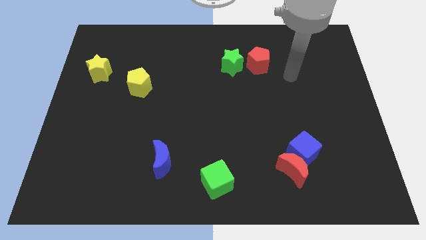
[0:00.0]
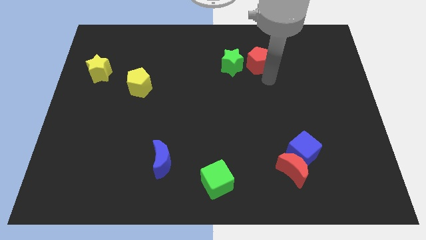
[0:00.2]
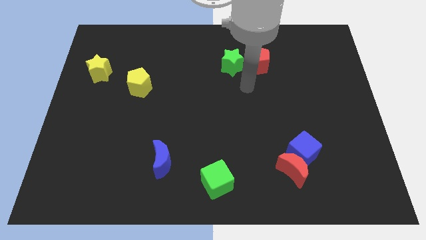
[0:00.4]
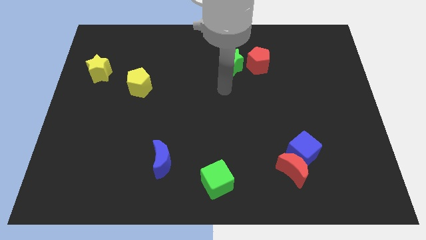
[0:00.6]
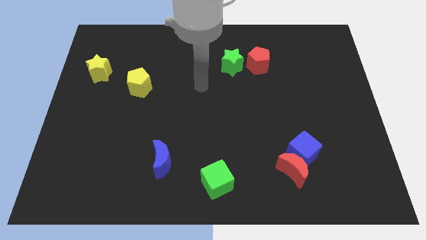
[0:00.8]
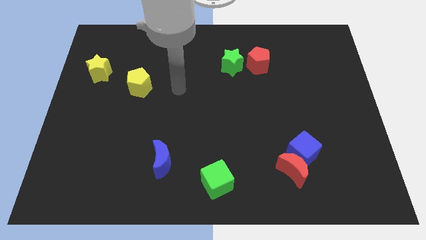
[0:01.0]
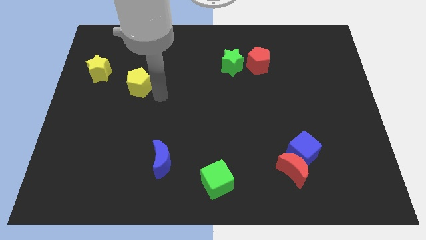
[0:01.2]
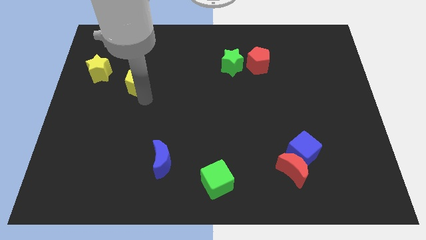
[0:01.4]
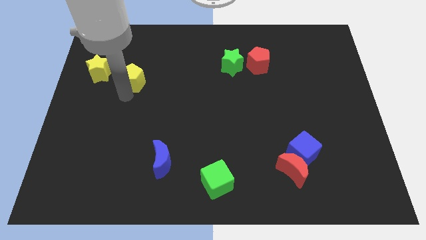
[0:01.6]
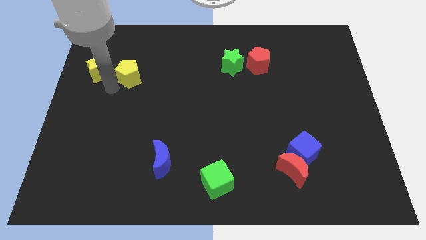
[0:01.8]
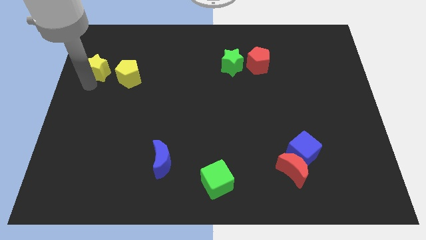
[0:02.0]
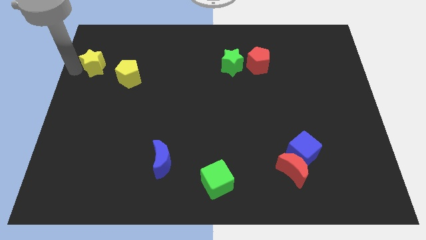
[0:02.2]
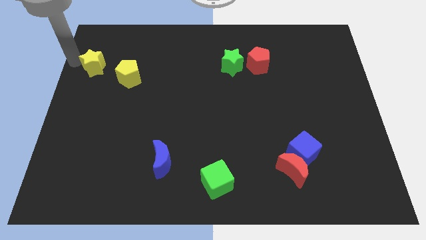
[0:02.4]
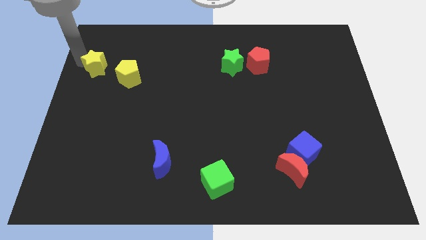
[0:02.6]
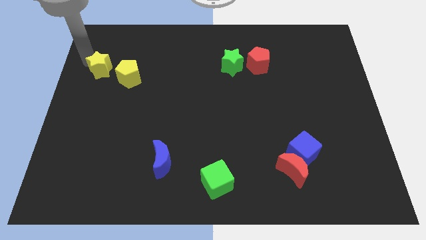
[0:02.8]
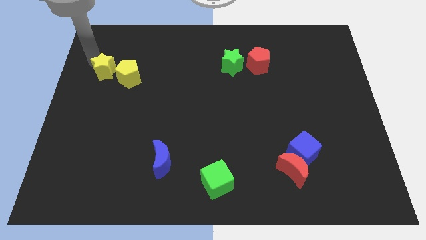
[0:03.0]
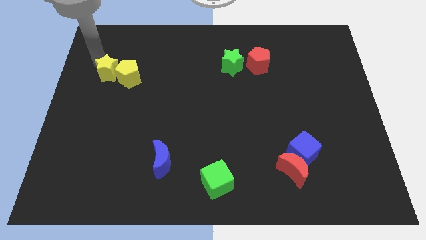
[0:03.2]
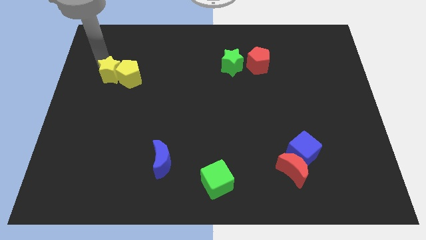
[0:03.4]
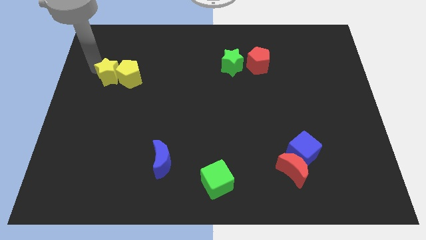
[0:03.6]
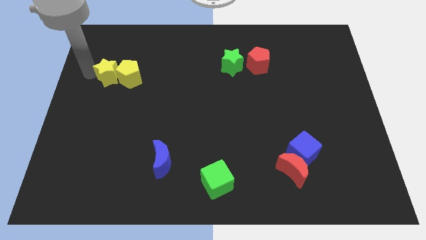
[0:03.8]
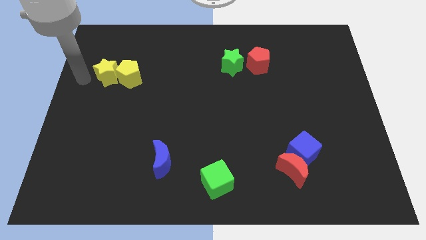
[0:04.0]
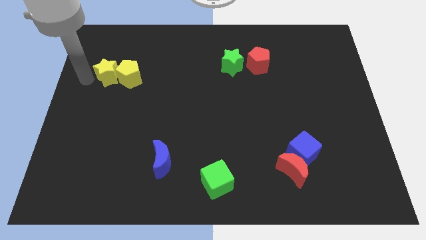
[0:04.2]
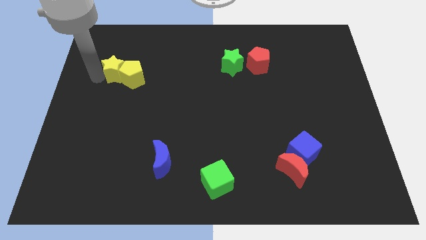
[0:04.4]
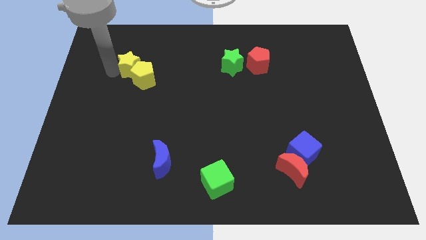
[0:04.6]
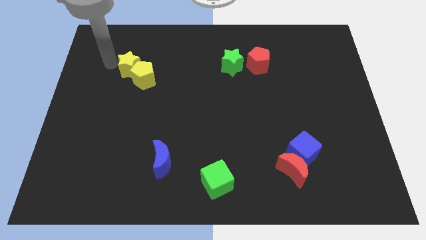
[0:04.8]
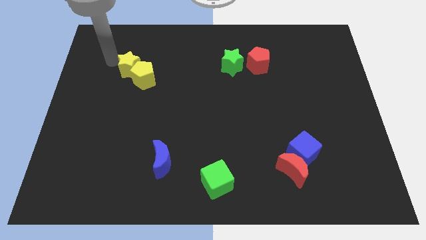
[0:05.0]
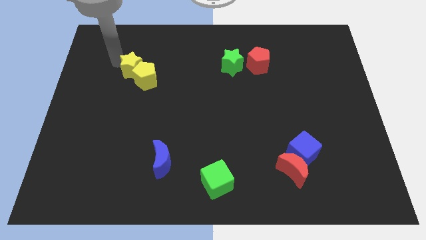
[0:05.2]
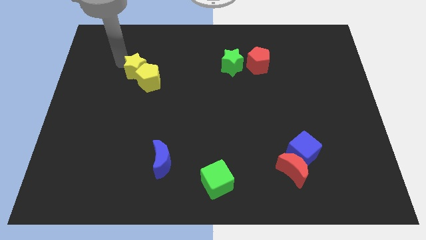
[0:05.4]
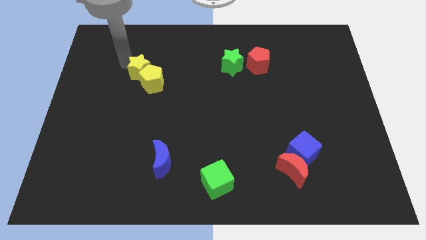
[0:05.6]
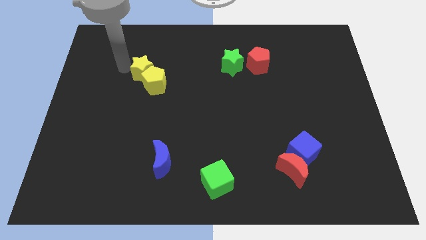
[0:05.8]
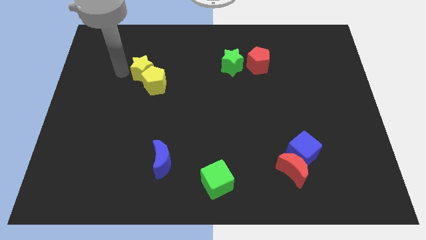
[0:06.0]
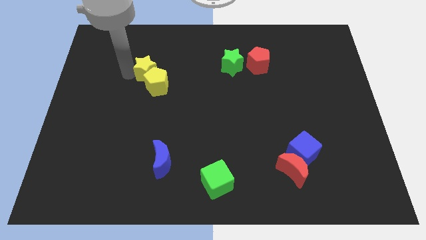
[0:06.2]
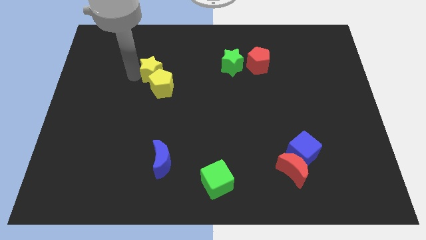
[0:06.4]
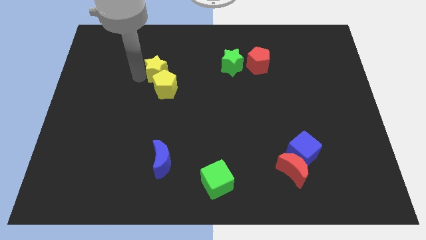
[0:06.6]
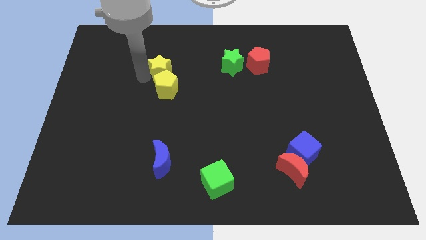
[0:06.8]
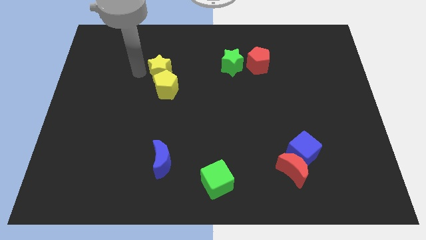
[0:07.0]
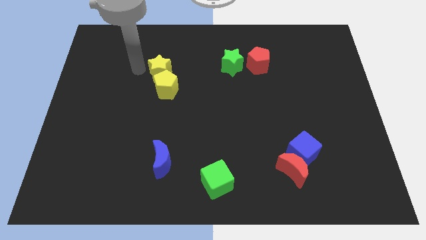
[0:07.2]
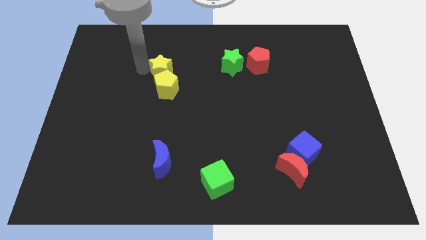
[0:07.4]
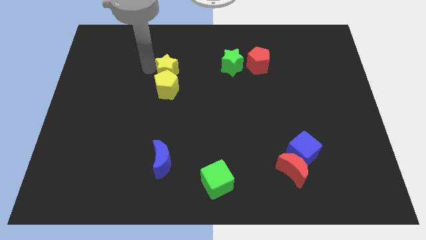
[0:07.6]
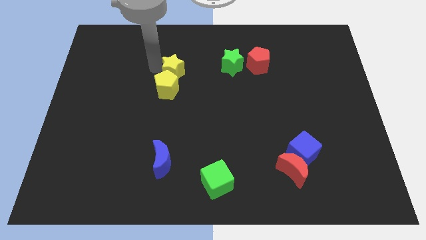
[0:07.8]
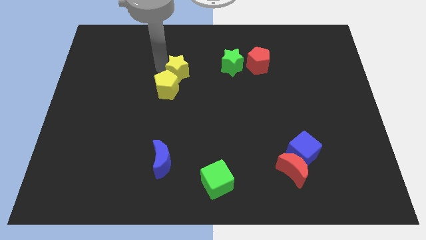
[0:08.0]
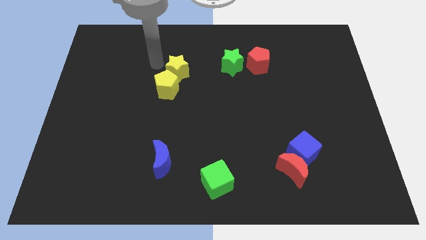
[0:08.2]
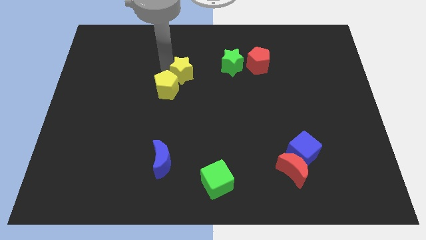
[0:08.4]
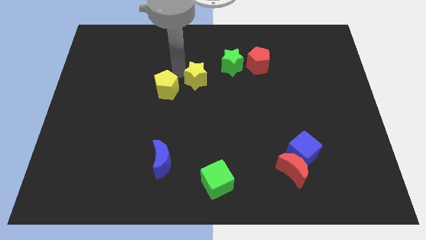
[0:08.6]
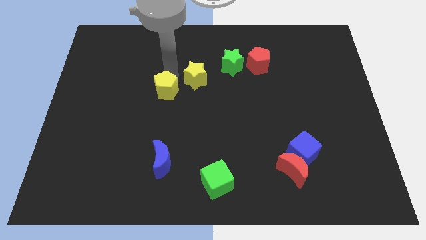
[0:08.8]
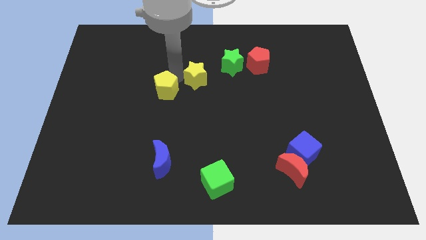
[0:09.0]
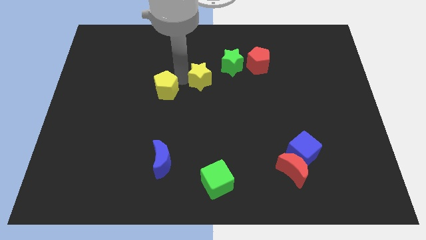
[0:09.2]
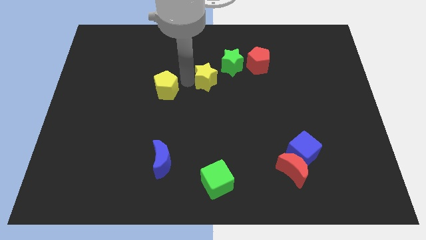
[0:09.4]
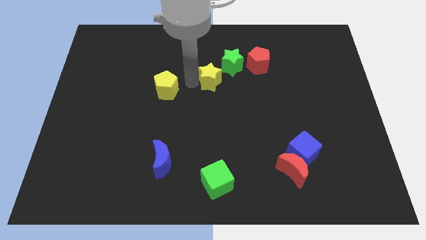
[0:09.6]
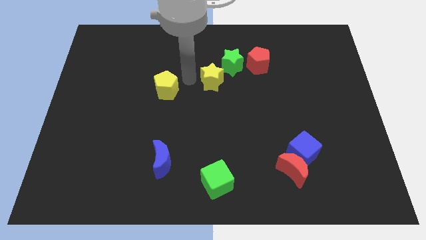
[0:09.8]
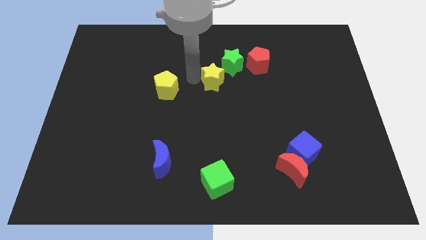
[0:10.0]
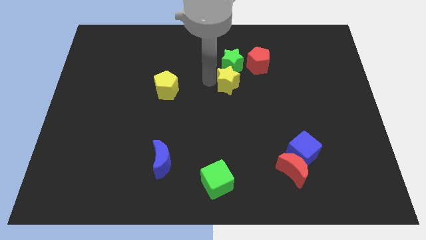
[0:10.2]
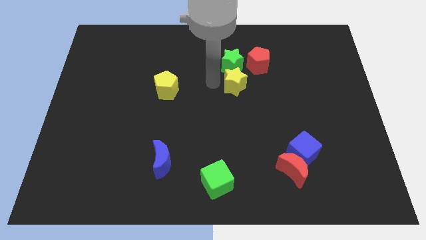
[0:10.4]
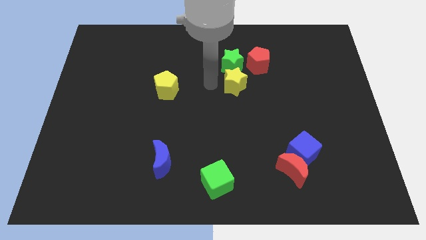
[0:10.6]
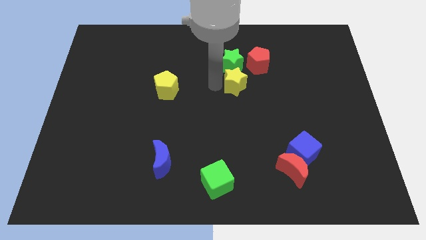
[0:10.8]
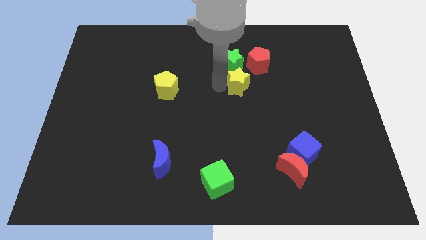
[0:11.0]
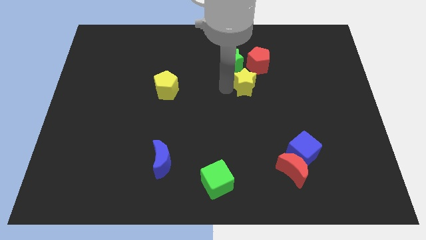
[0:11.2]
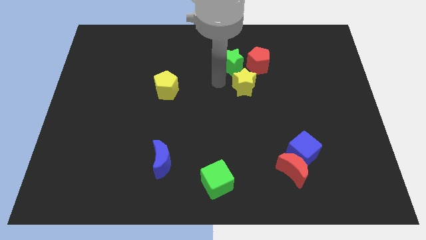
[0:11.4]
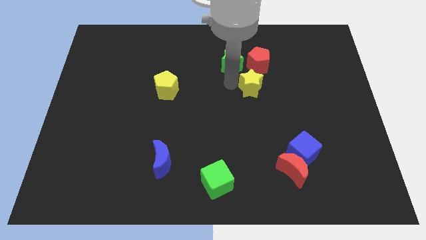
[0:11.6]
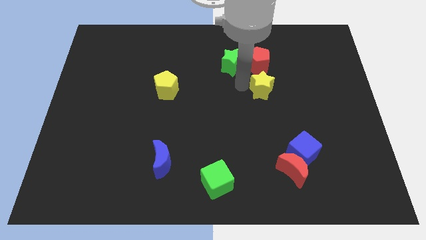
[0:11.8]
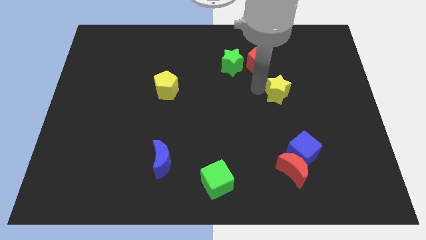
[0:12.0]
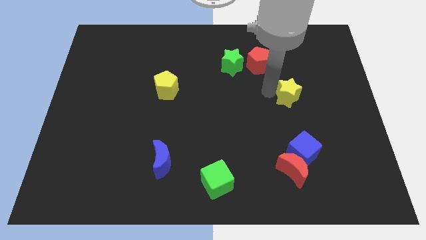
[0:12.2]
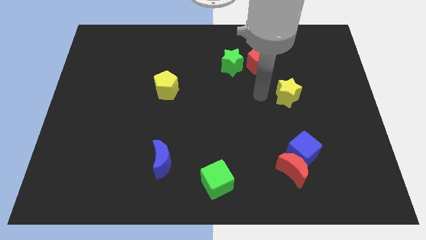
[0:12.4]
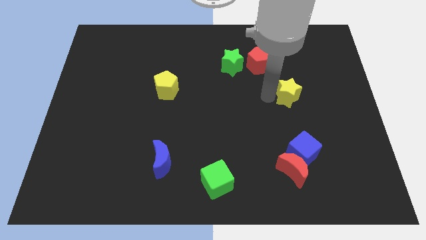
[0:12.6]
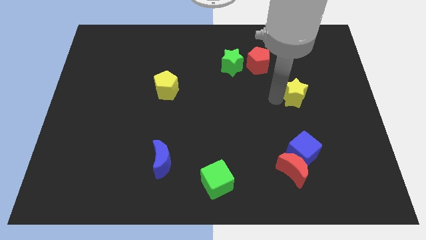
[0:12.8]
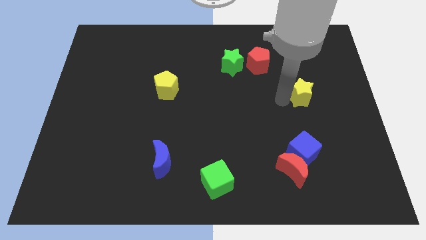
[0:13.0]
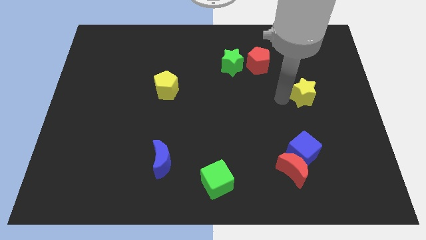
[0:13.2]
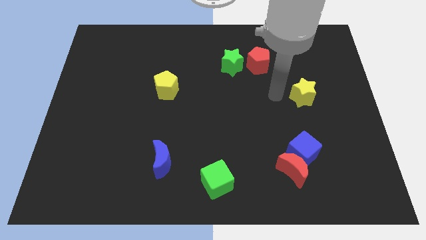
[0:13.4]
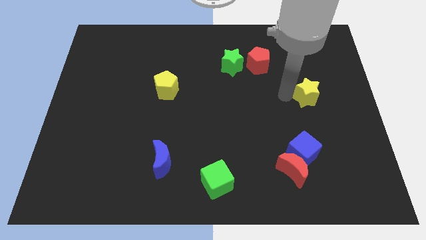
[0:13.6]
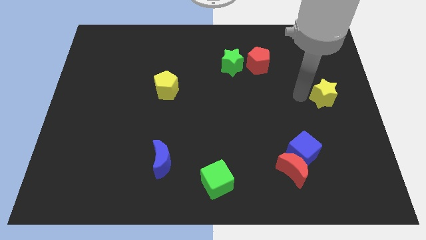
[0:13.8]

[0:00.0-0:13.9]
slide the yellow star to the center right
